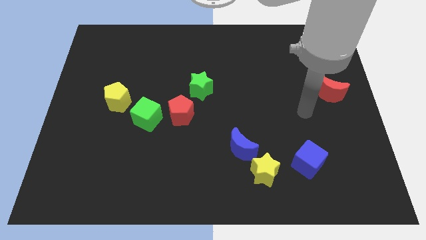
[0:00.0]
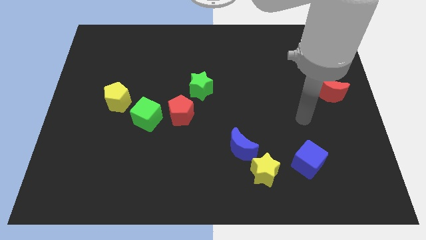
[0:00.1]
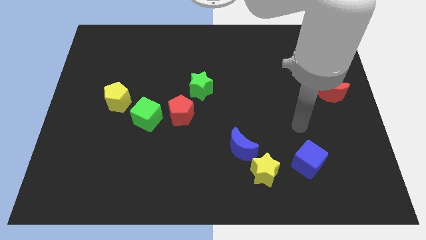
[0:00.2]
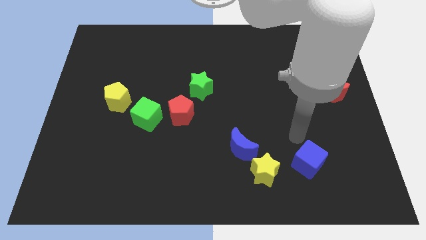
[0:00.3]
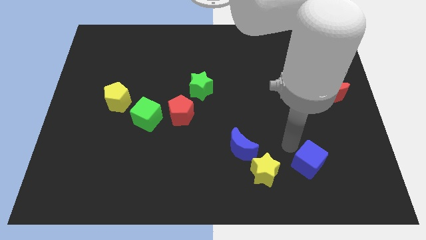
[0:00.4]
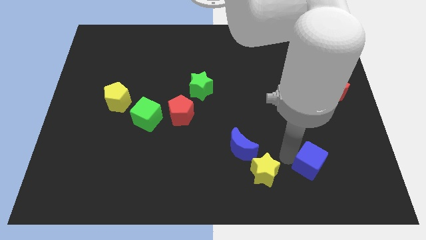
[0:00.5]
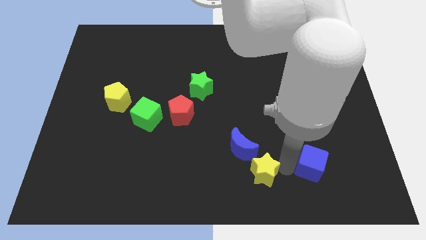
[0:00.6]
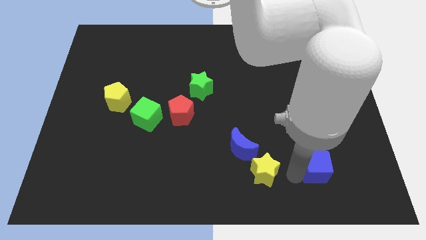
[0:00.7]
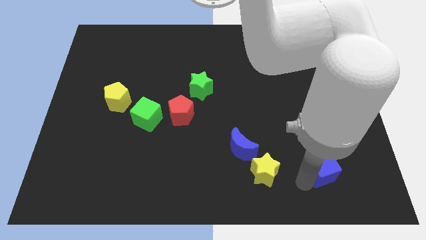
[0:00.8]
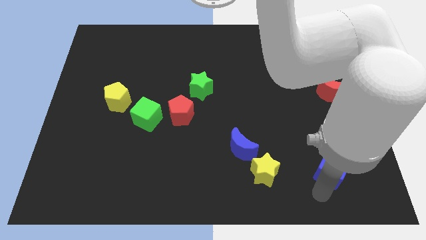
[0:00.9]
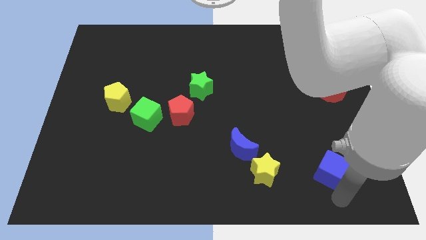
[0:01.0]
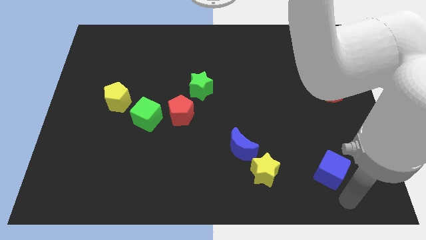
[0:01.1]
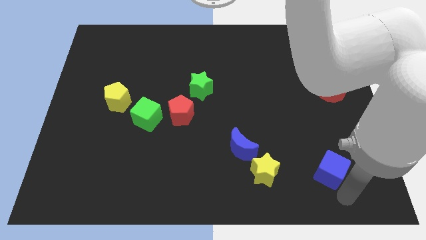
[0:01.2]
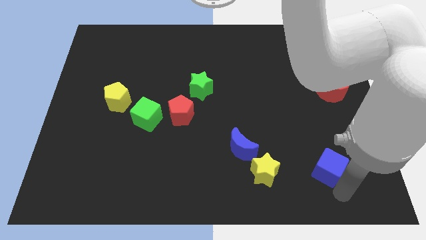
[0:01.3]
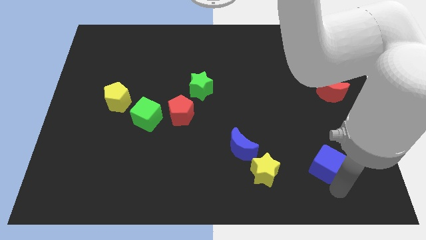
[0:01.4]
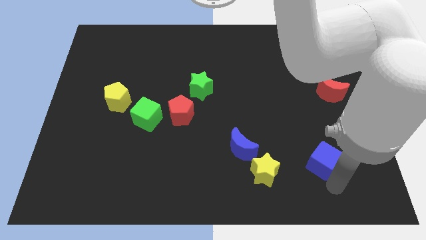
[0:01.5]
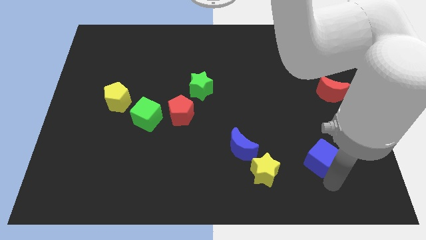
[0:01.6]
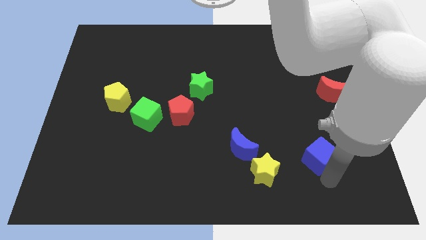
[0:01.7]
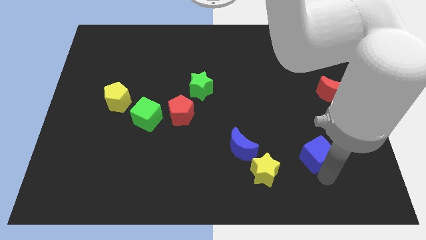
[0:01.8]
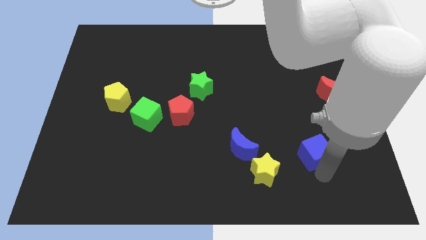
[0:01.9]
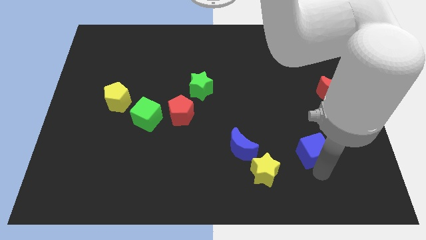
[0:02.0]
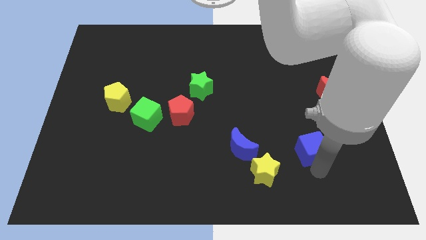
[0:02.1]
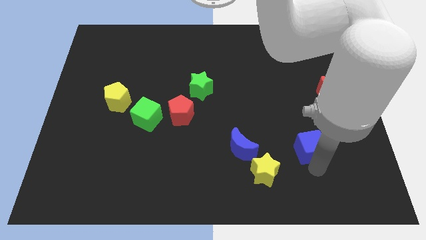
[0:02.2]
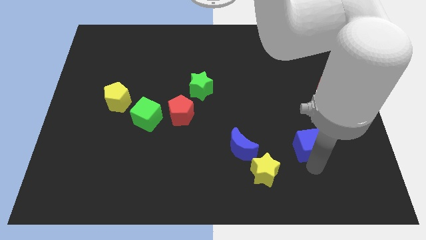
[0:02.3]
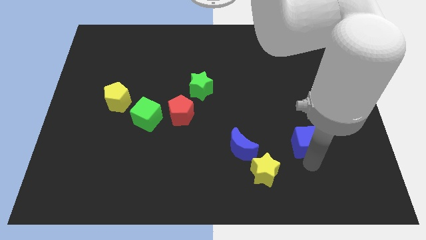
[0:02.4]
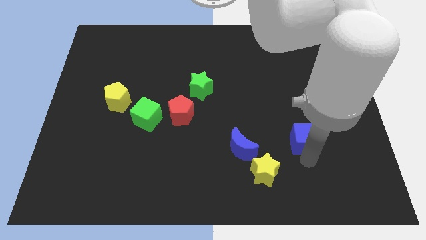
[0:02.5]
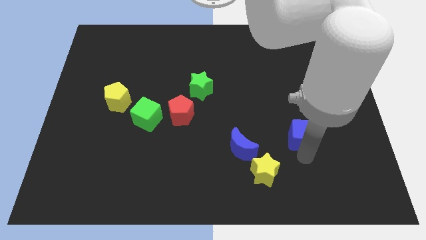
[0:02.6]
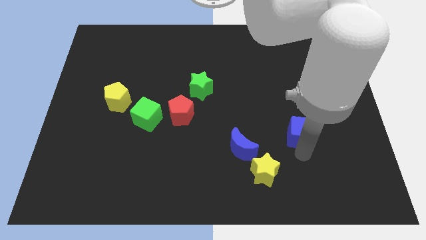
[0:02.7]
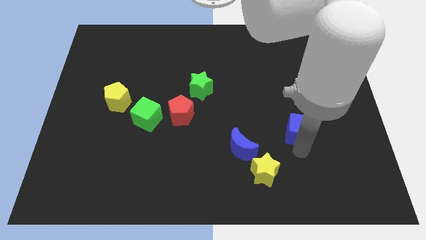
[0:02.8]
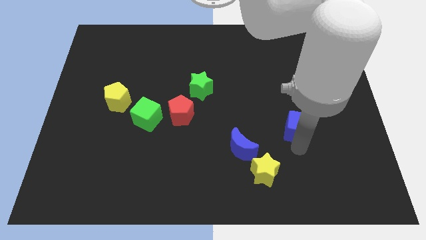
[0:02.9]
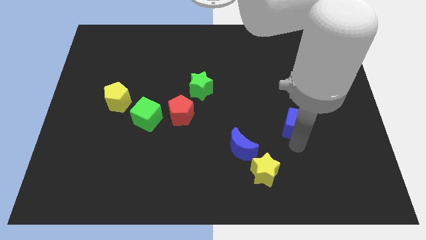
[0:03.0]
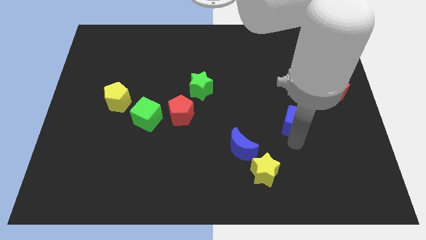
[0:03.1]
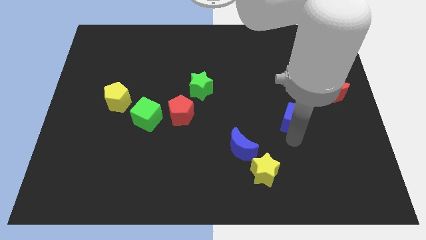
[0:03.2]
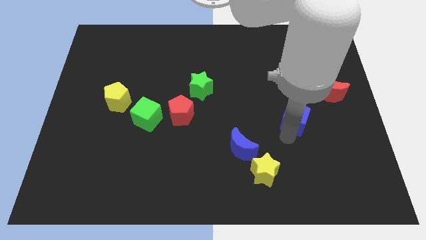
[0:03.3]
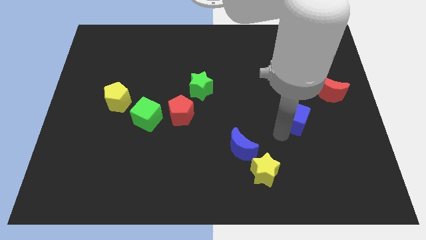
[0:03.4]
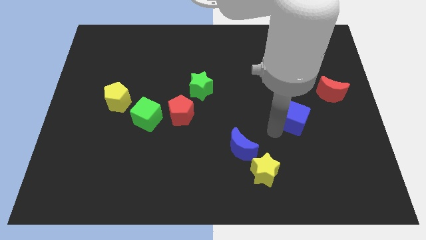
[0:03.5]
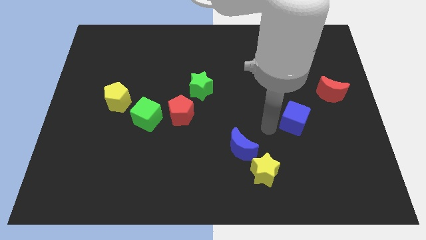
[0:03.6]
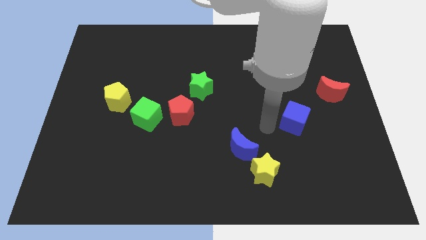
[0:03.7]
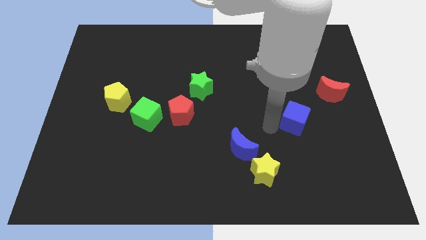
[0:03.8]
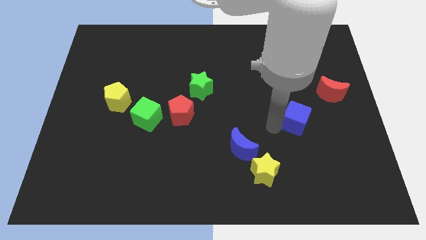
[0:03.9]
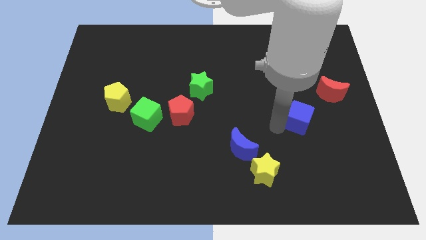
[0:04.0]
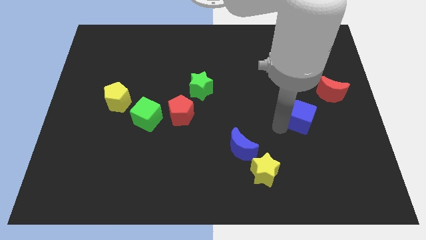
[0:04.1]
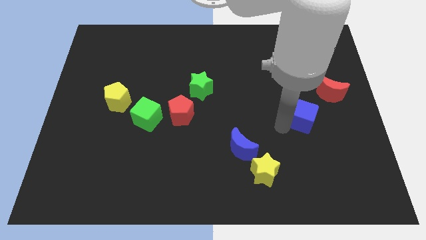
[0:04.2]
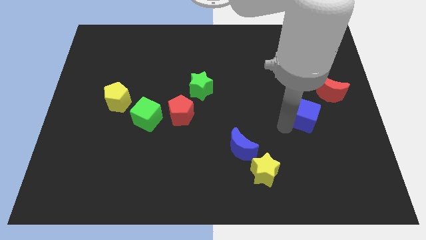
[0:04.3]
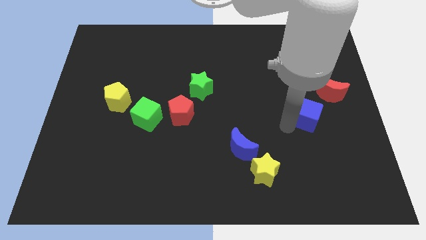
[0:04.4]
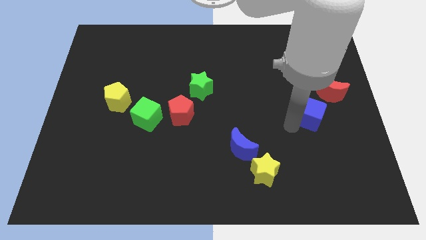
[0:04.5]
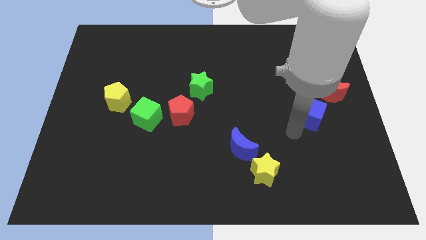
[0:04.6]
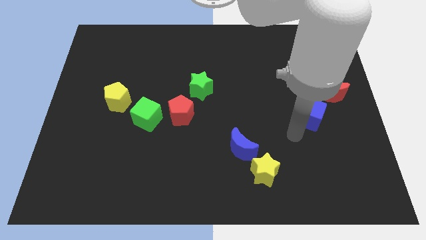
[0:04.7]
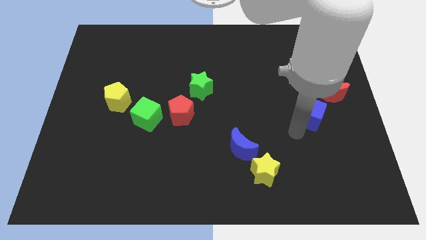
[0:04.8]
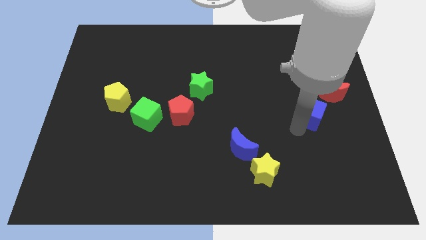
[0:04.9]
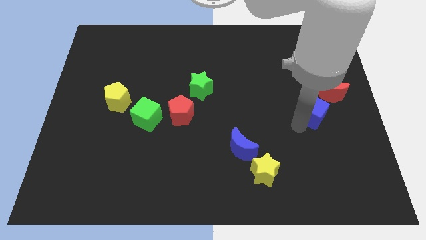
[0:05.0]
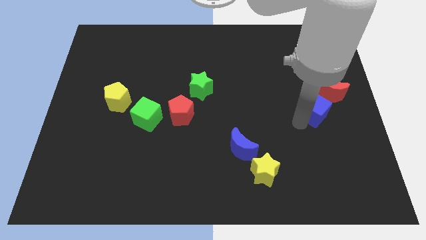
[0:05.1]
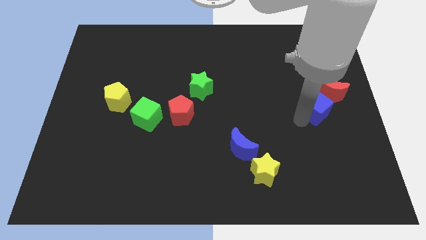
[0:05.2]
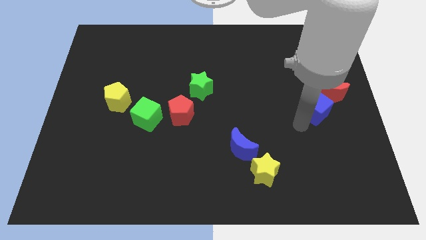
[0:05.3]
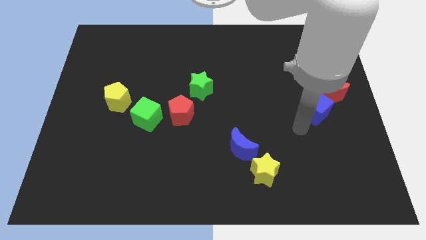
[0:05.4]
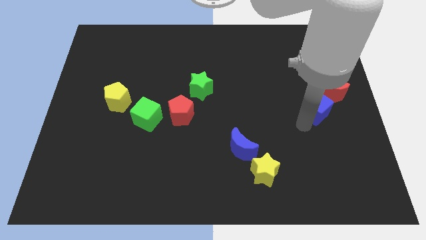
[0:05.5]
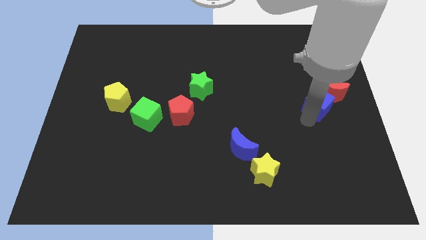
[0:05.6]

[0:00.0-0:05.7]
slide the blue cube next to the red moon

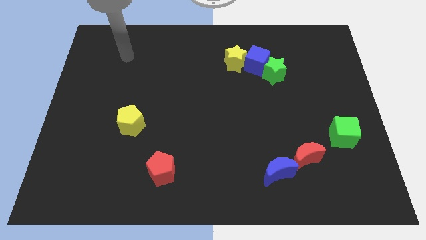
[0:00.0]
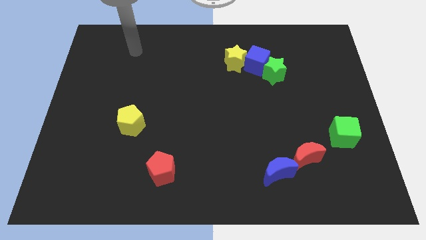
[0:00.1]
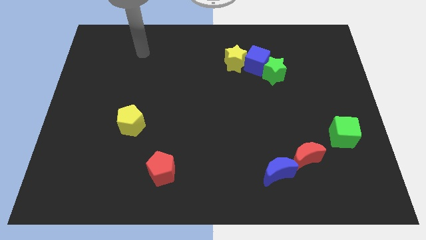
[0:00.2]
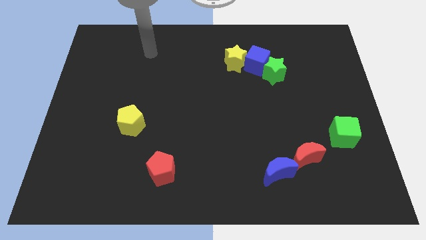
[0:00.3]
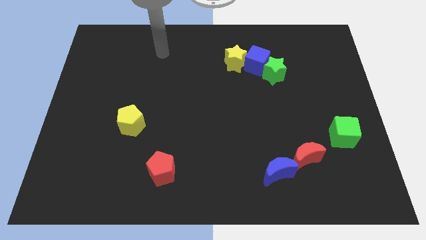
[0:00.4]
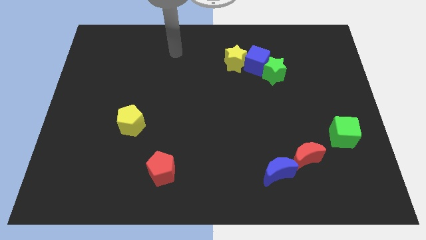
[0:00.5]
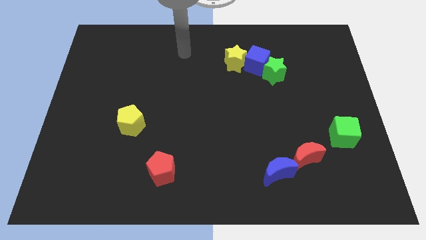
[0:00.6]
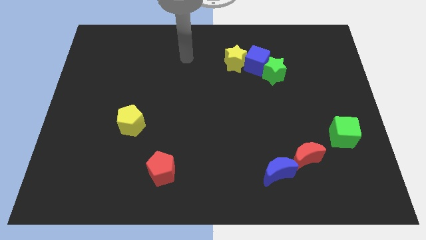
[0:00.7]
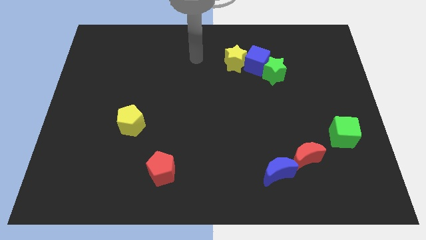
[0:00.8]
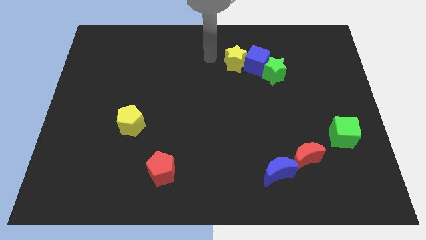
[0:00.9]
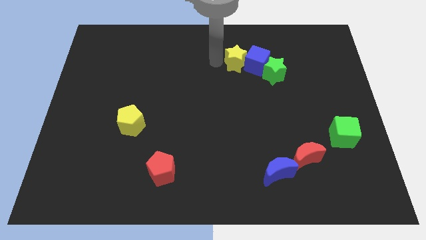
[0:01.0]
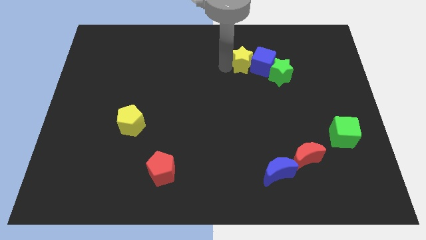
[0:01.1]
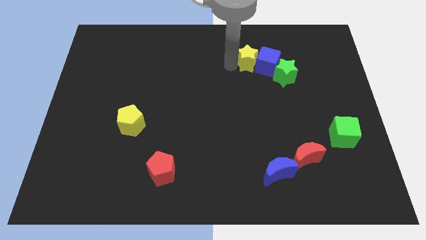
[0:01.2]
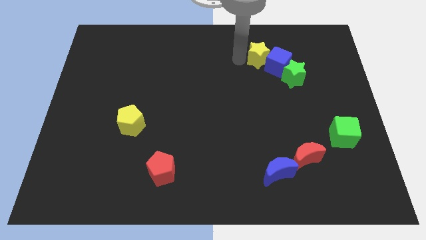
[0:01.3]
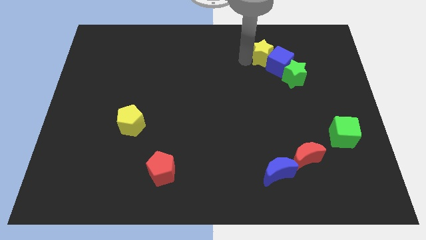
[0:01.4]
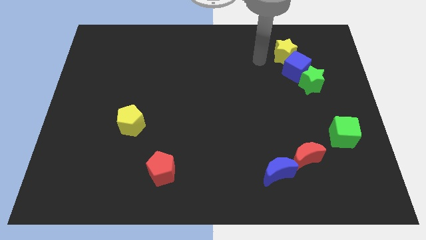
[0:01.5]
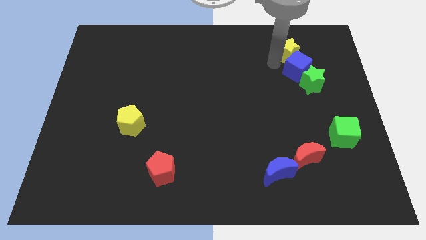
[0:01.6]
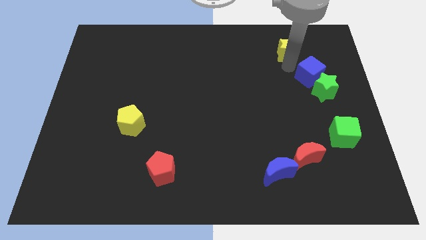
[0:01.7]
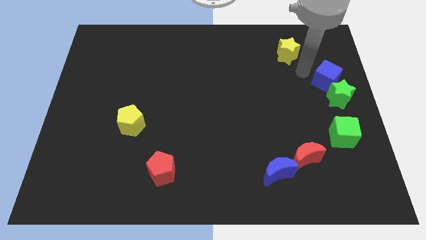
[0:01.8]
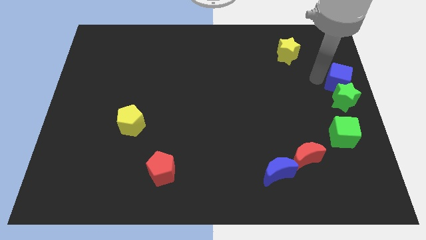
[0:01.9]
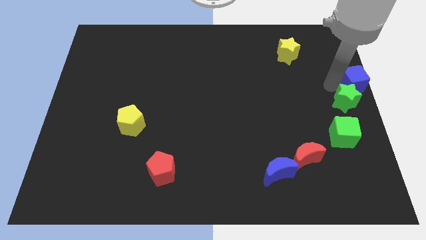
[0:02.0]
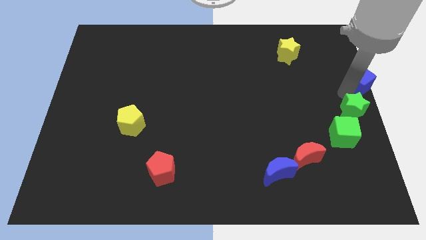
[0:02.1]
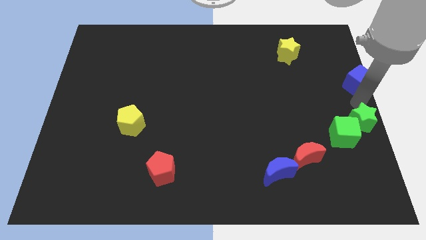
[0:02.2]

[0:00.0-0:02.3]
put the green star to the green cube
